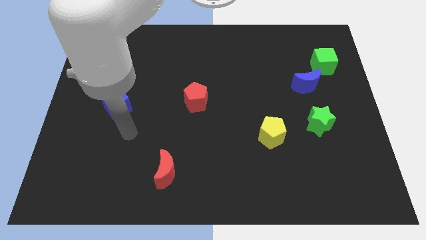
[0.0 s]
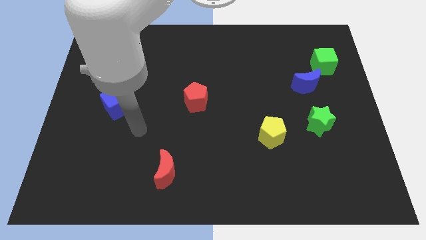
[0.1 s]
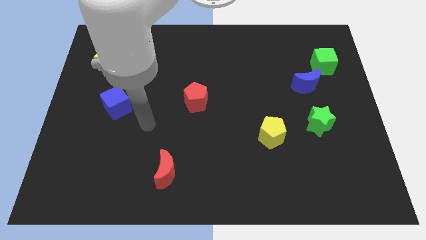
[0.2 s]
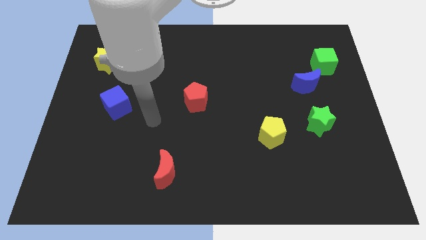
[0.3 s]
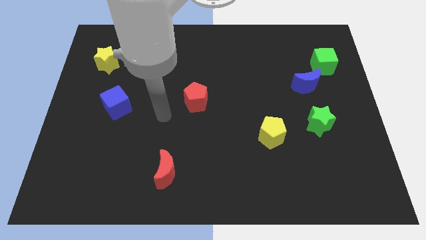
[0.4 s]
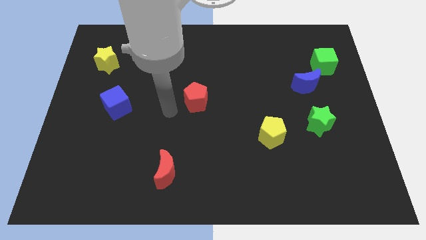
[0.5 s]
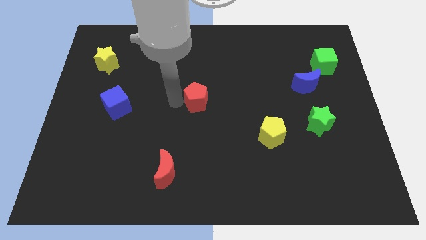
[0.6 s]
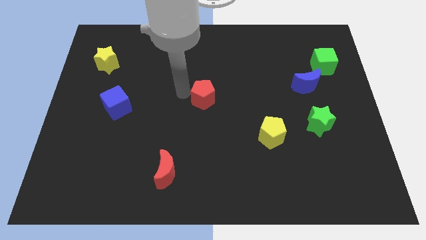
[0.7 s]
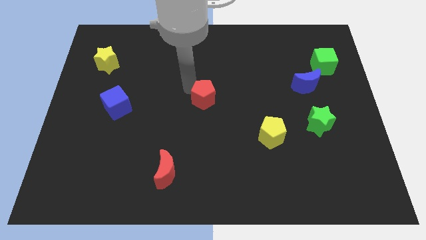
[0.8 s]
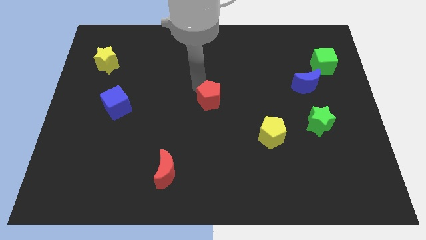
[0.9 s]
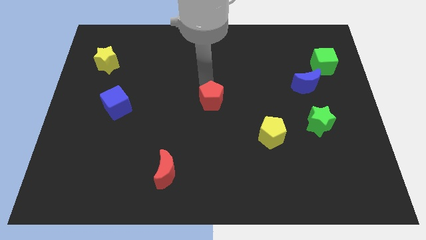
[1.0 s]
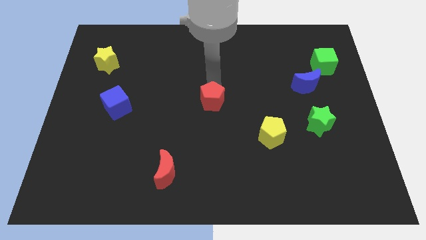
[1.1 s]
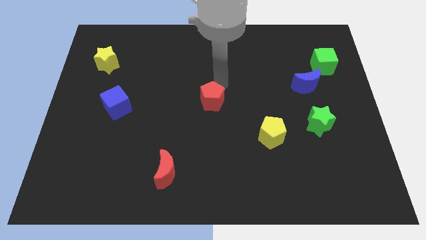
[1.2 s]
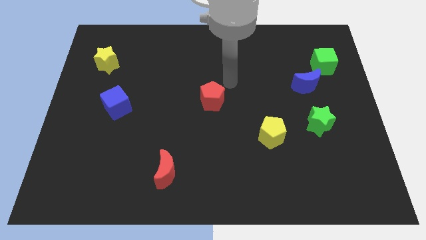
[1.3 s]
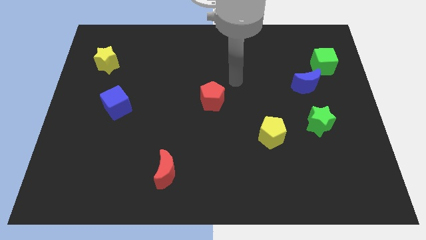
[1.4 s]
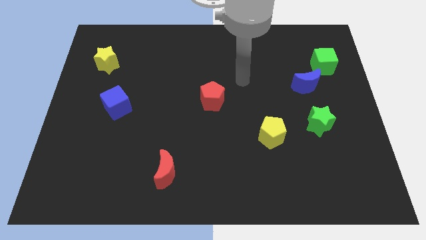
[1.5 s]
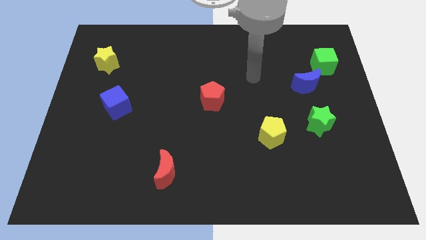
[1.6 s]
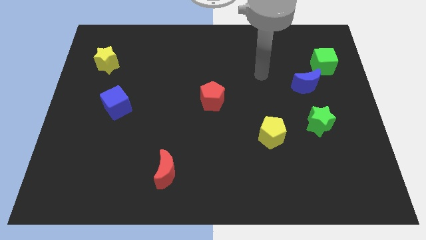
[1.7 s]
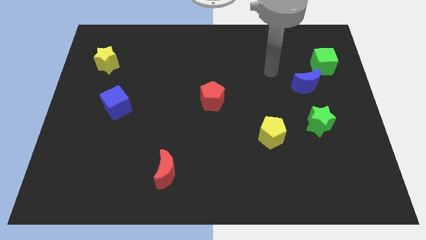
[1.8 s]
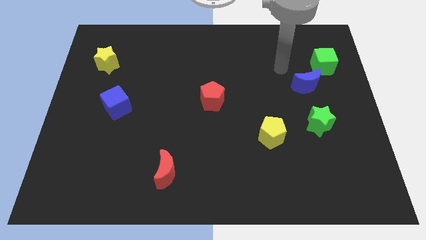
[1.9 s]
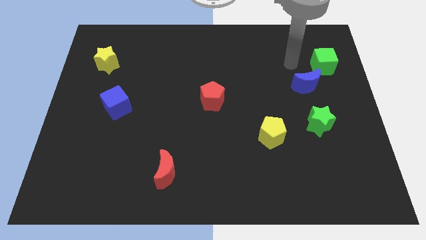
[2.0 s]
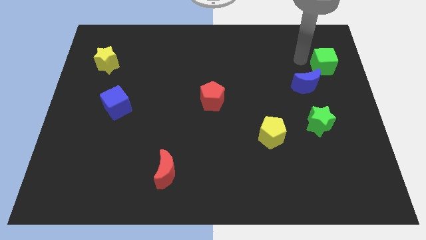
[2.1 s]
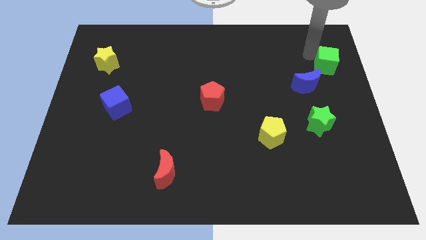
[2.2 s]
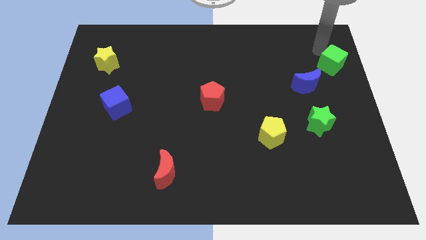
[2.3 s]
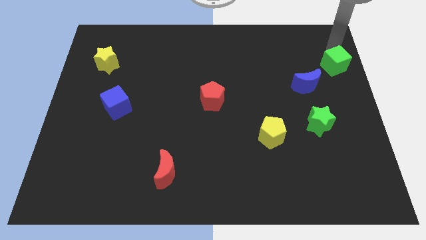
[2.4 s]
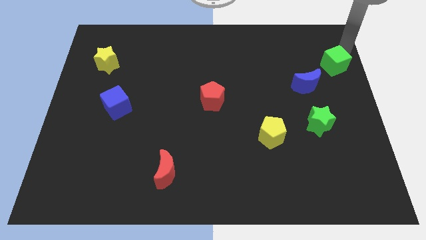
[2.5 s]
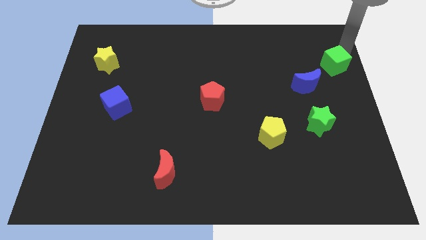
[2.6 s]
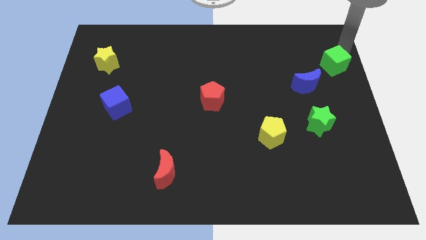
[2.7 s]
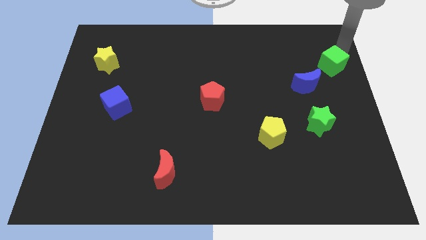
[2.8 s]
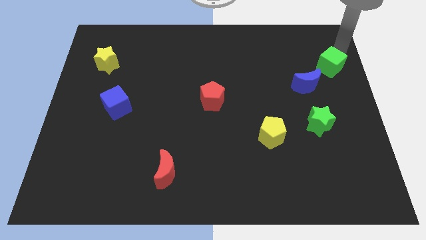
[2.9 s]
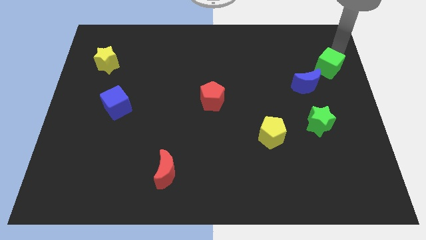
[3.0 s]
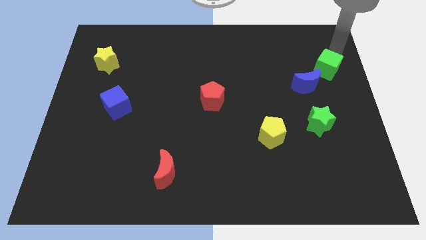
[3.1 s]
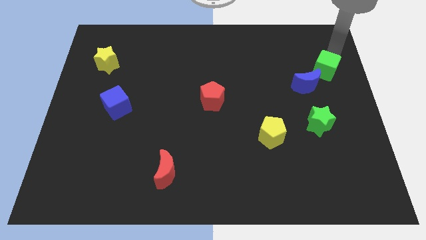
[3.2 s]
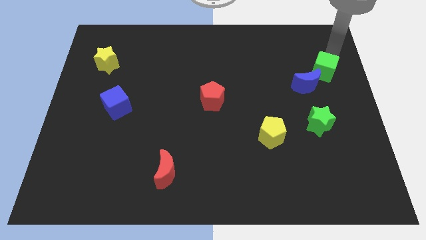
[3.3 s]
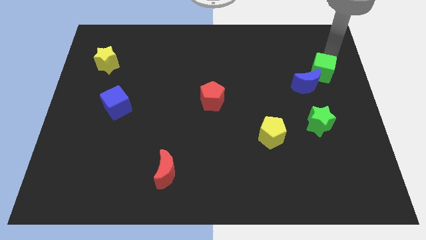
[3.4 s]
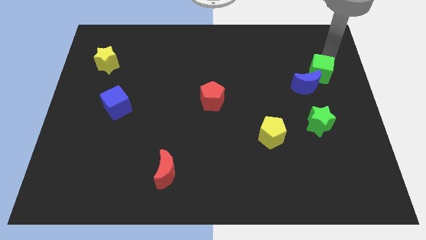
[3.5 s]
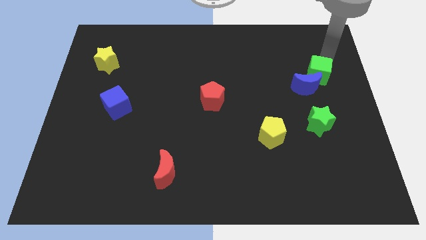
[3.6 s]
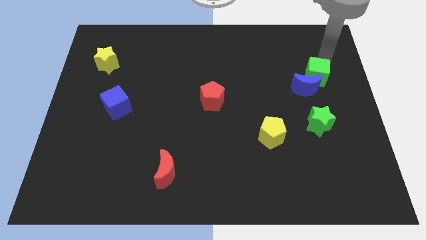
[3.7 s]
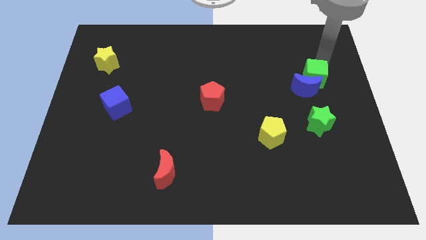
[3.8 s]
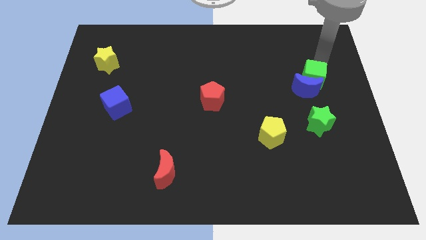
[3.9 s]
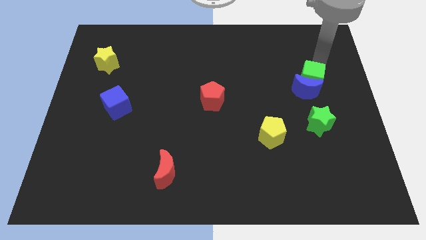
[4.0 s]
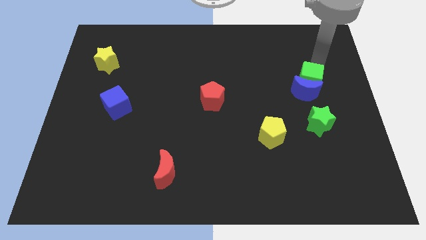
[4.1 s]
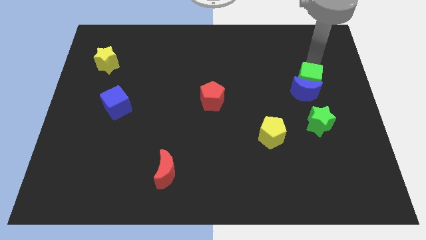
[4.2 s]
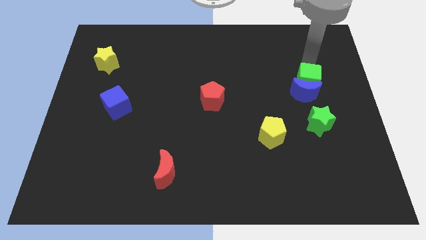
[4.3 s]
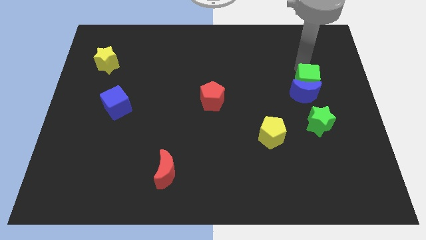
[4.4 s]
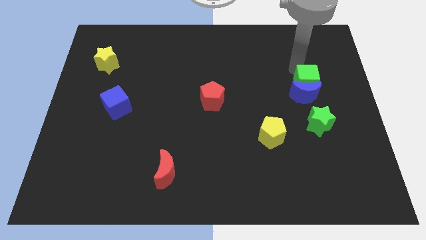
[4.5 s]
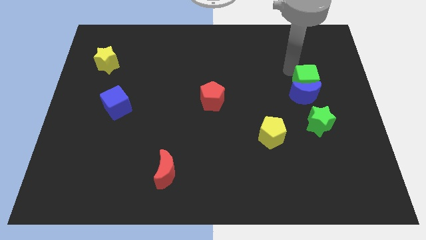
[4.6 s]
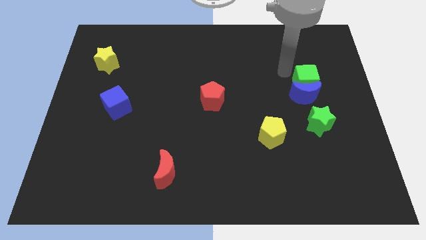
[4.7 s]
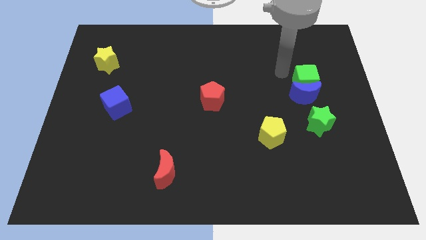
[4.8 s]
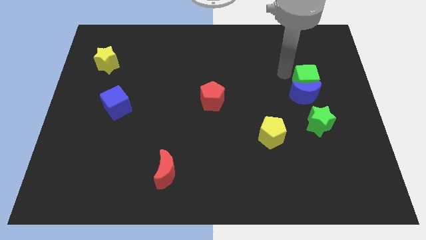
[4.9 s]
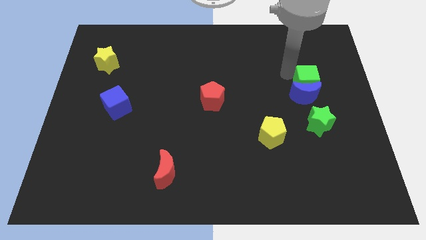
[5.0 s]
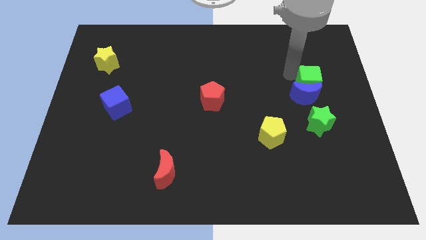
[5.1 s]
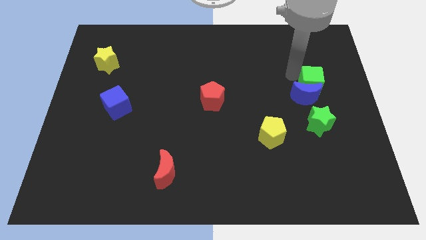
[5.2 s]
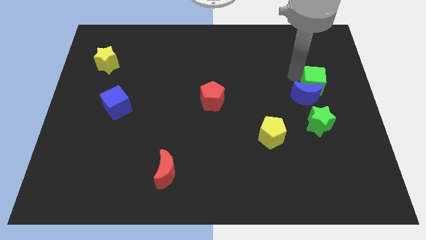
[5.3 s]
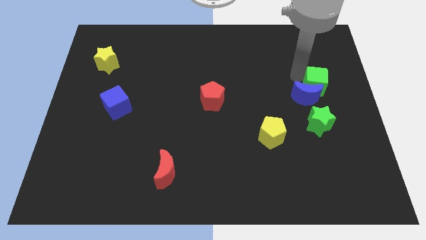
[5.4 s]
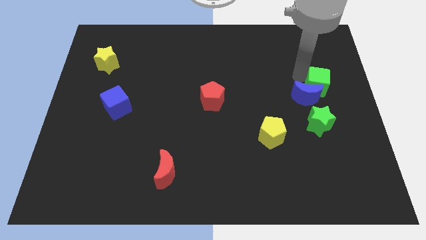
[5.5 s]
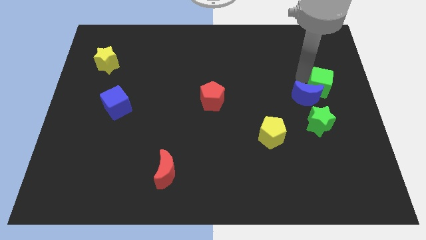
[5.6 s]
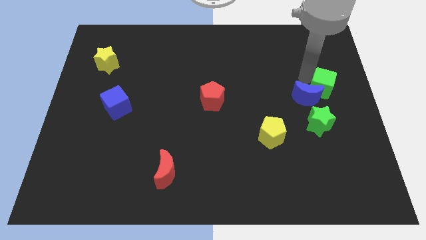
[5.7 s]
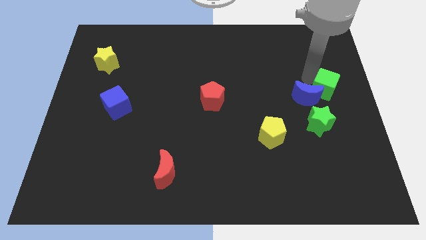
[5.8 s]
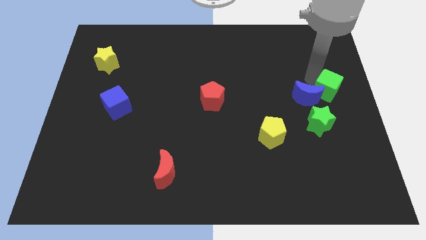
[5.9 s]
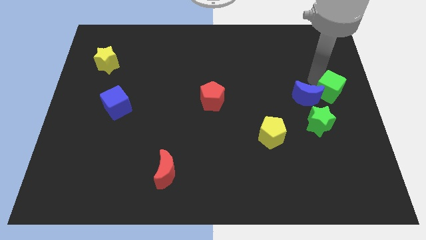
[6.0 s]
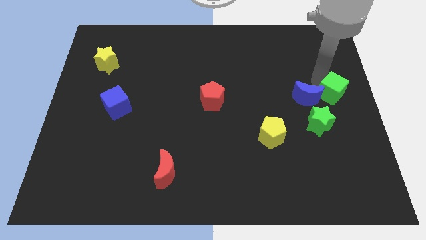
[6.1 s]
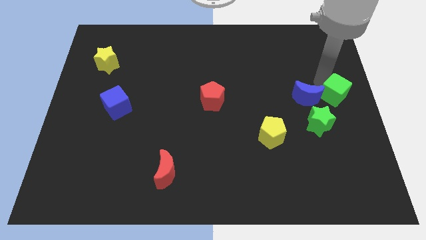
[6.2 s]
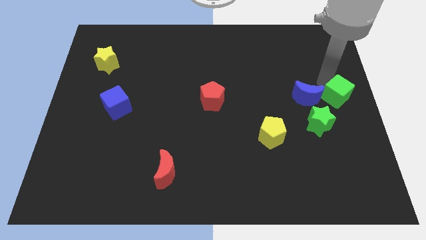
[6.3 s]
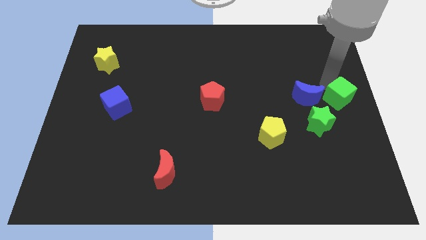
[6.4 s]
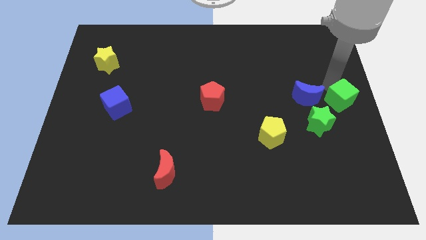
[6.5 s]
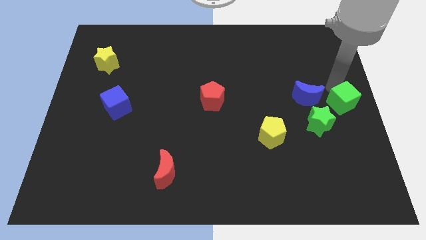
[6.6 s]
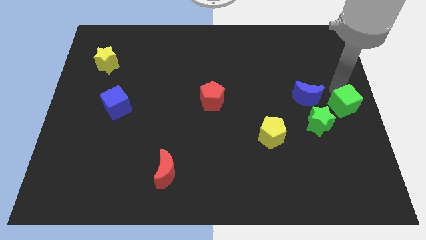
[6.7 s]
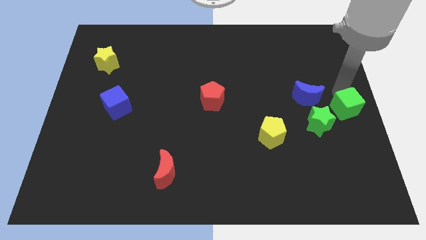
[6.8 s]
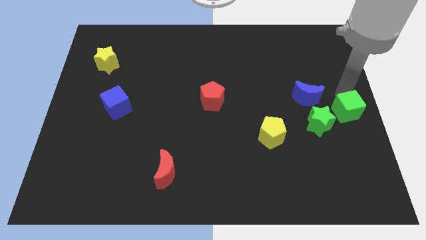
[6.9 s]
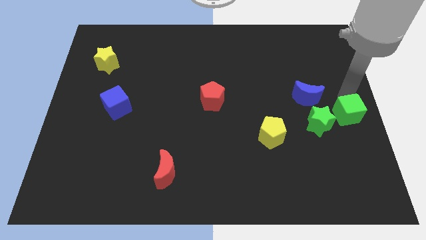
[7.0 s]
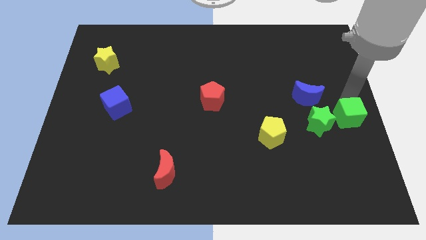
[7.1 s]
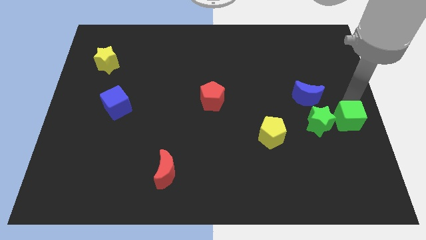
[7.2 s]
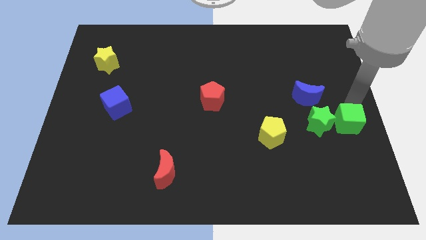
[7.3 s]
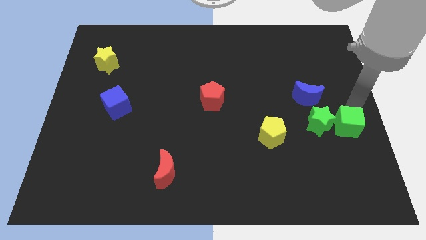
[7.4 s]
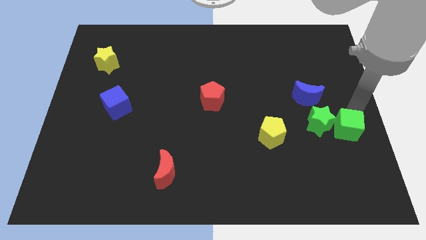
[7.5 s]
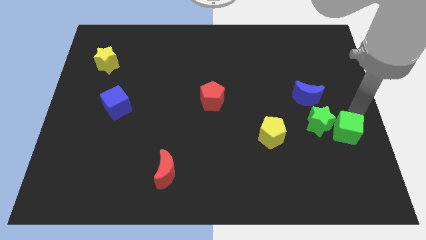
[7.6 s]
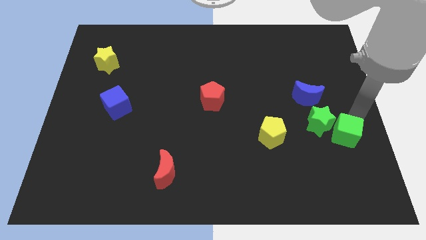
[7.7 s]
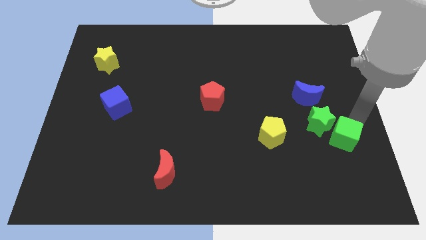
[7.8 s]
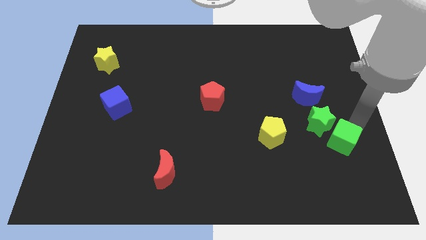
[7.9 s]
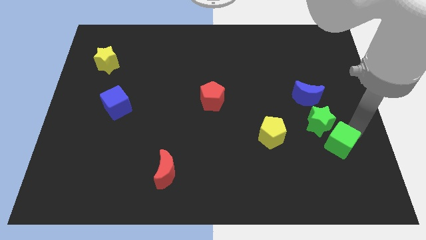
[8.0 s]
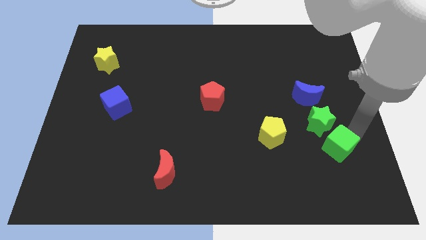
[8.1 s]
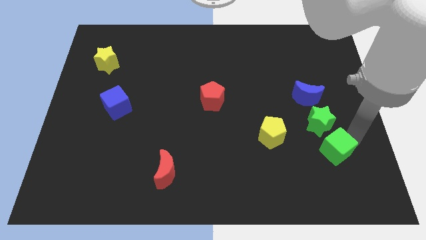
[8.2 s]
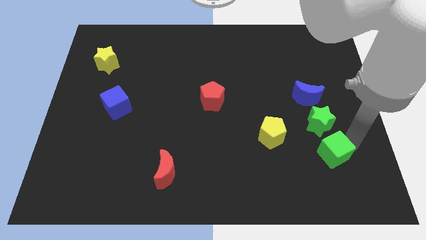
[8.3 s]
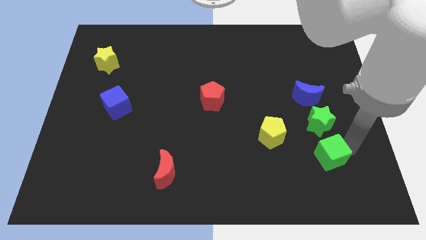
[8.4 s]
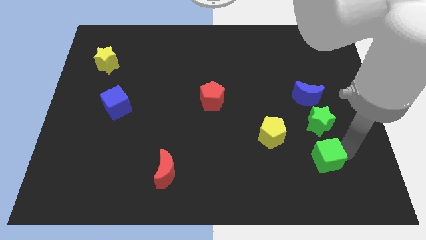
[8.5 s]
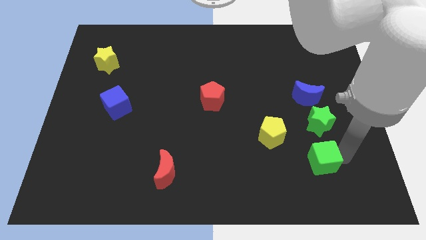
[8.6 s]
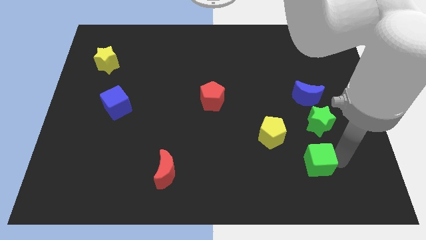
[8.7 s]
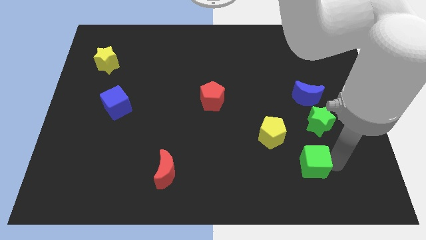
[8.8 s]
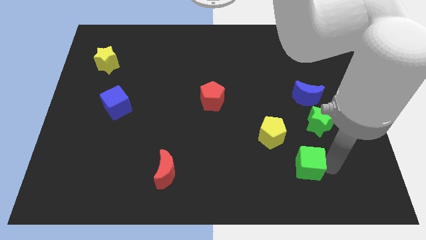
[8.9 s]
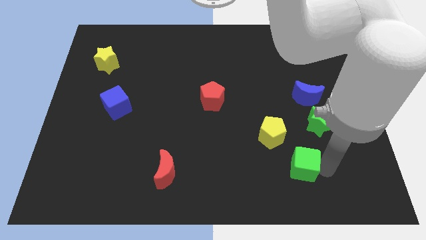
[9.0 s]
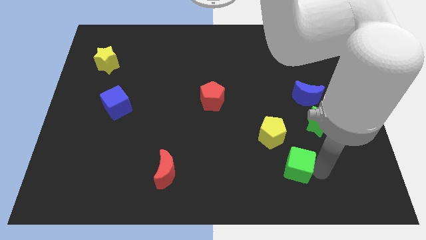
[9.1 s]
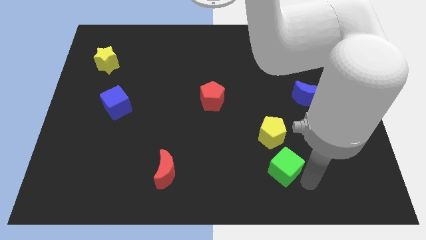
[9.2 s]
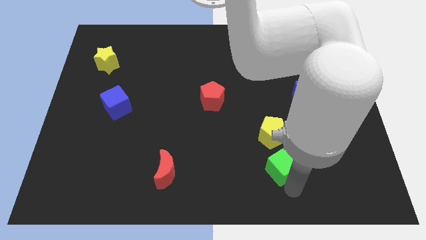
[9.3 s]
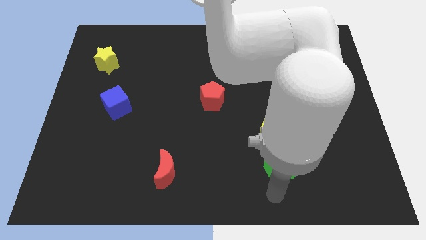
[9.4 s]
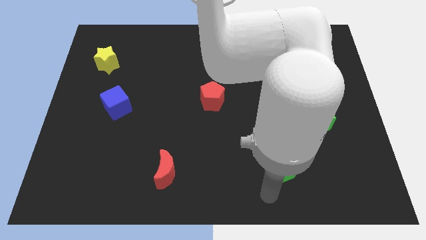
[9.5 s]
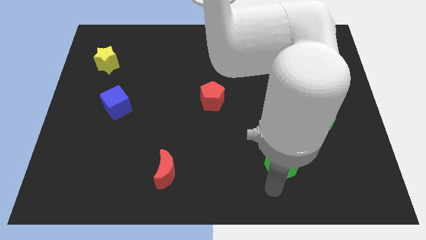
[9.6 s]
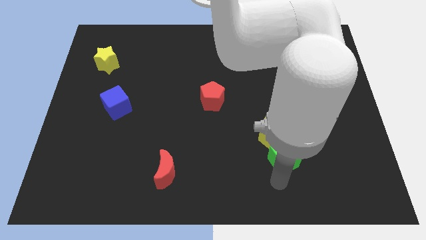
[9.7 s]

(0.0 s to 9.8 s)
push the green cube towards the yellow pentagon
